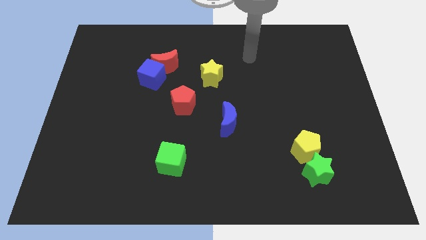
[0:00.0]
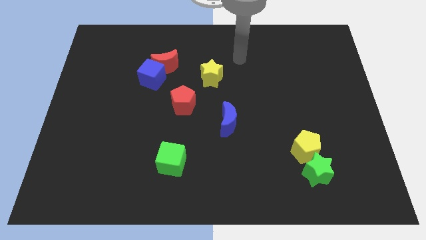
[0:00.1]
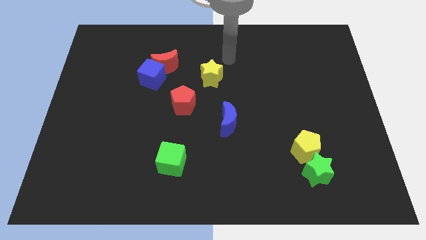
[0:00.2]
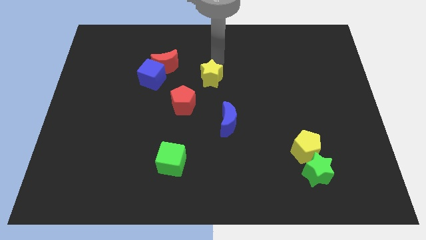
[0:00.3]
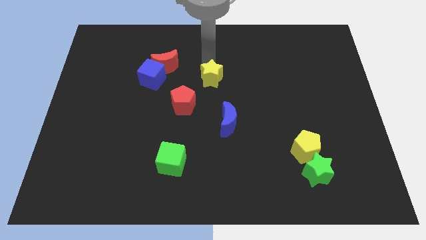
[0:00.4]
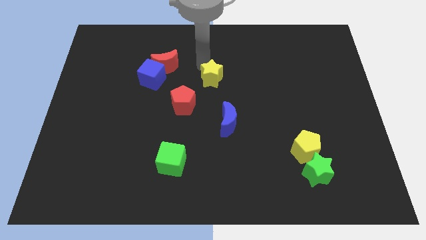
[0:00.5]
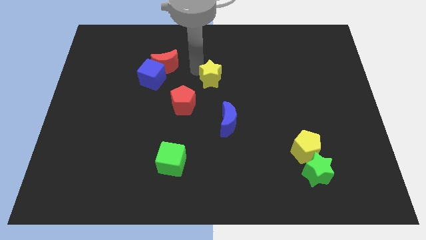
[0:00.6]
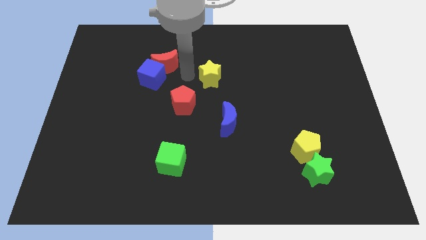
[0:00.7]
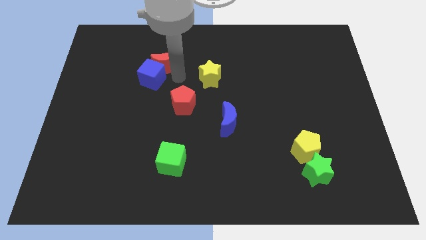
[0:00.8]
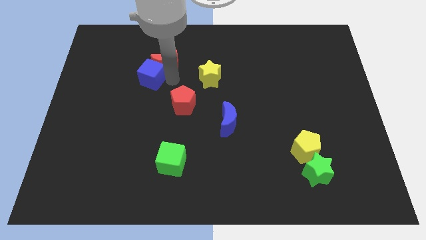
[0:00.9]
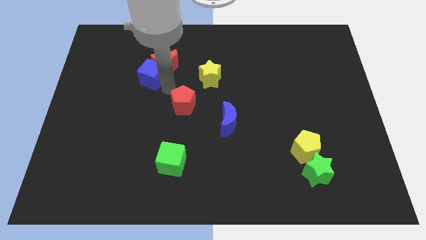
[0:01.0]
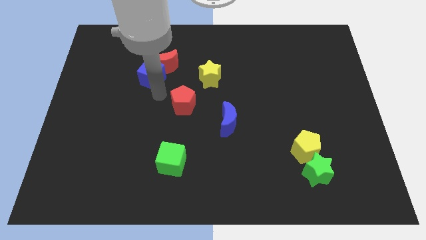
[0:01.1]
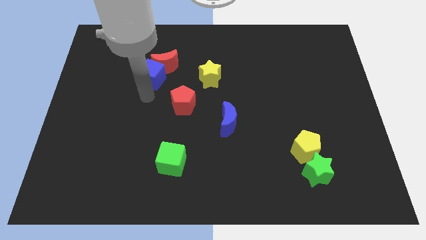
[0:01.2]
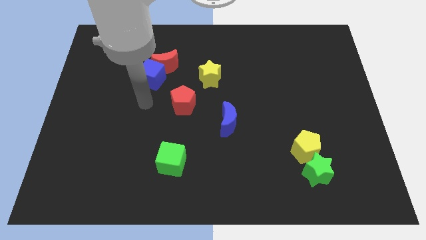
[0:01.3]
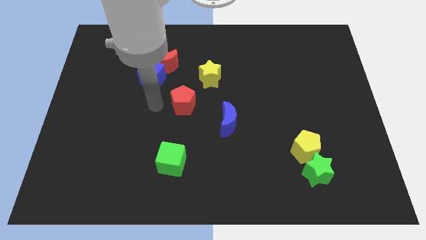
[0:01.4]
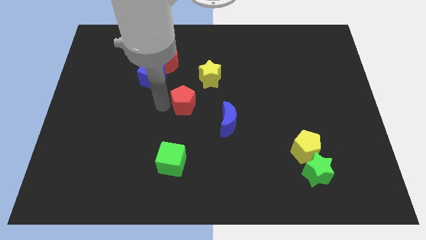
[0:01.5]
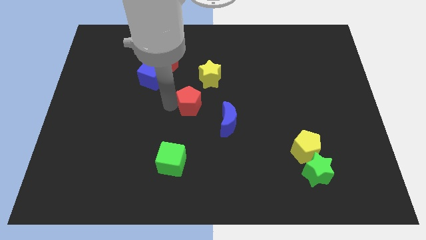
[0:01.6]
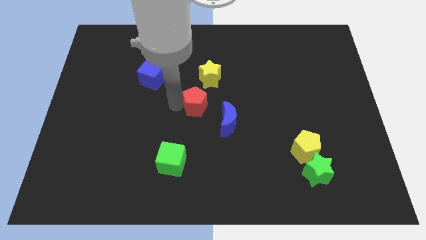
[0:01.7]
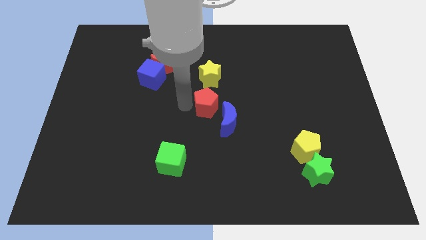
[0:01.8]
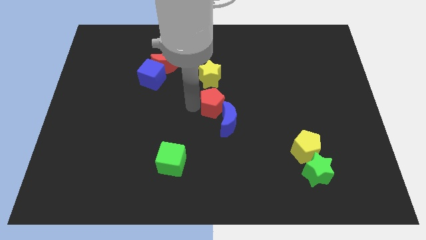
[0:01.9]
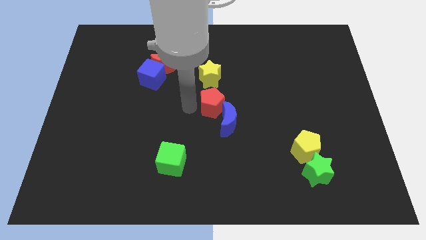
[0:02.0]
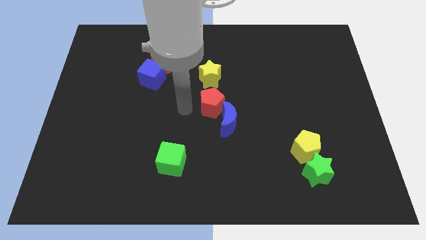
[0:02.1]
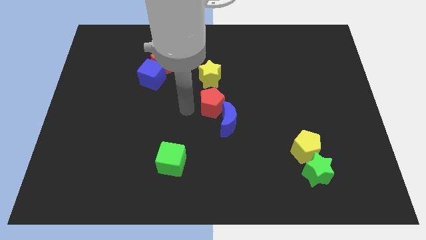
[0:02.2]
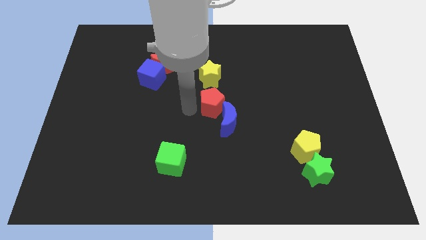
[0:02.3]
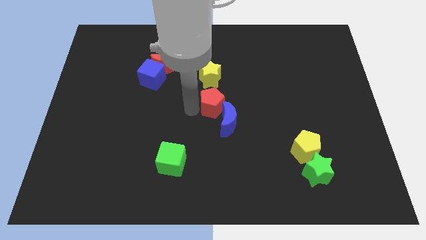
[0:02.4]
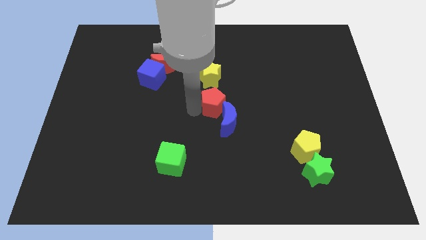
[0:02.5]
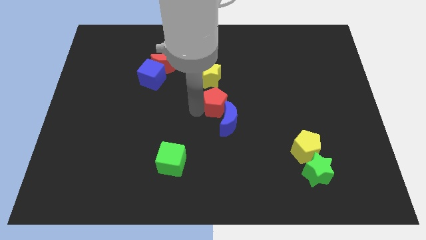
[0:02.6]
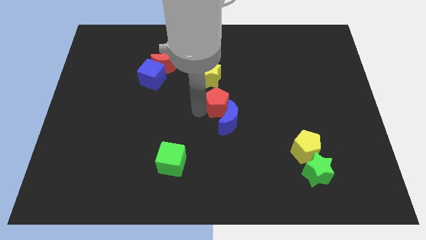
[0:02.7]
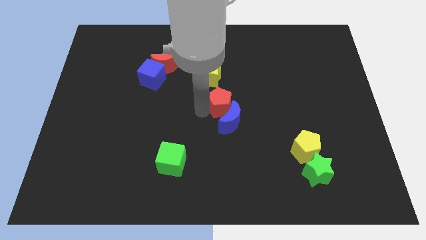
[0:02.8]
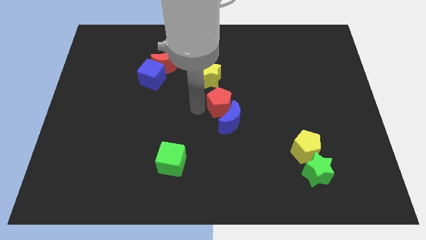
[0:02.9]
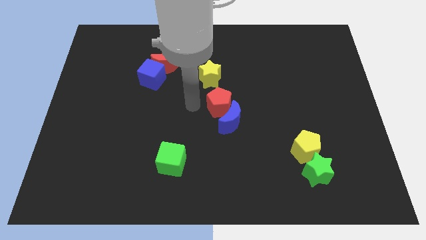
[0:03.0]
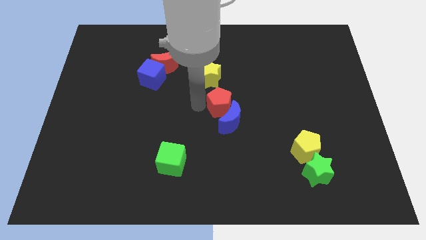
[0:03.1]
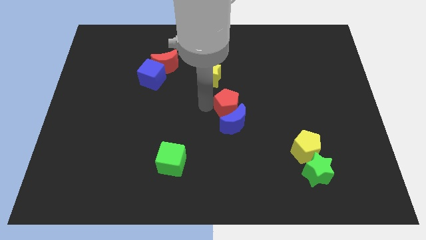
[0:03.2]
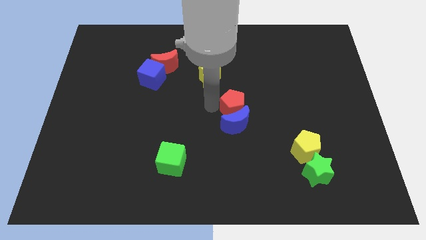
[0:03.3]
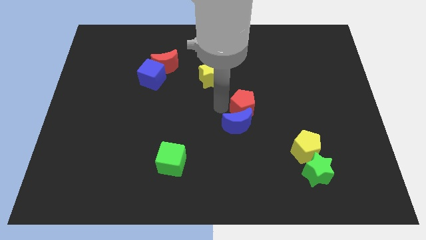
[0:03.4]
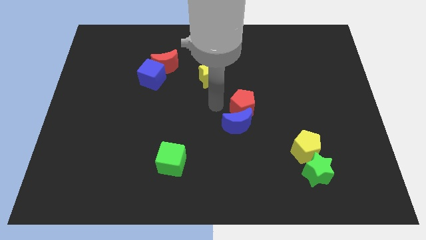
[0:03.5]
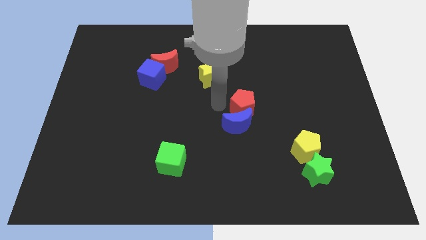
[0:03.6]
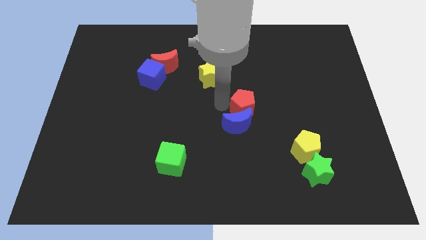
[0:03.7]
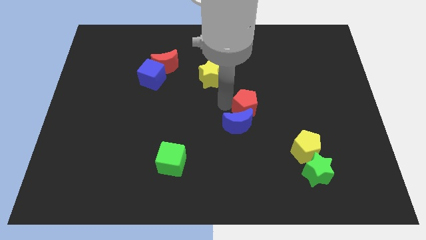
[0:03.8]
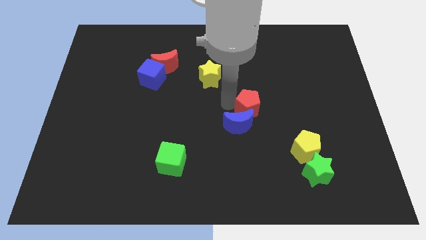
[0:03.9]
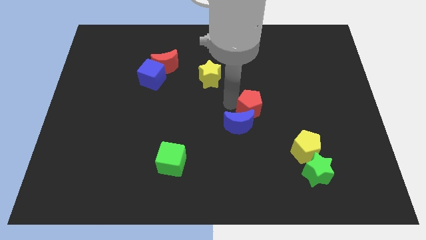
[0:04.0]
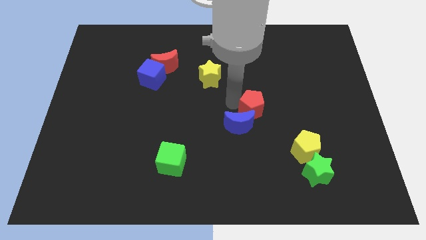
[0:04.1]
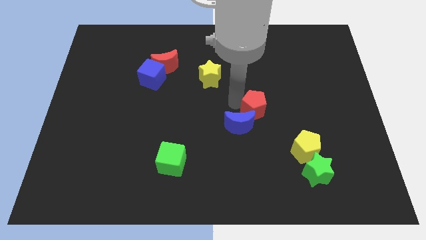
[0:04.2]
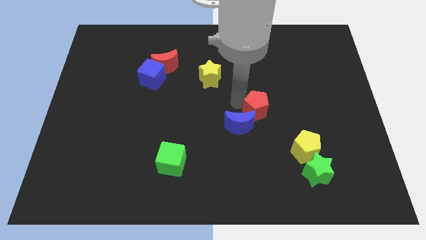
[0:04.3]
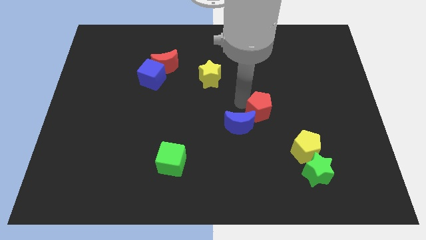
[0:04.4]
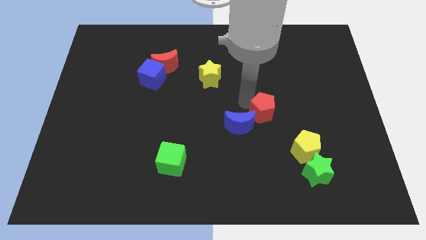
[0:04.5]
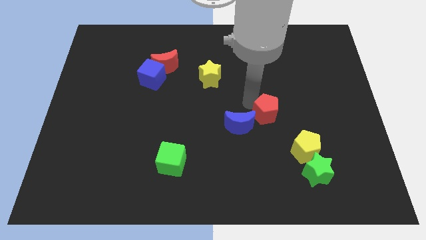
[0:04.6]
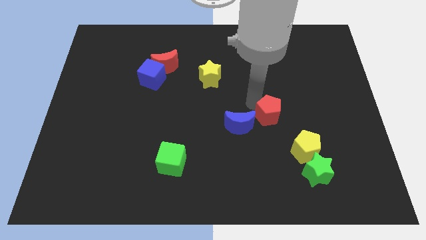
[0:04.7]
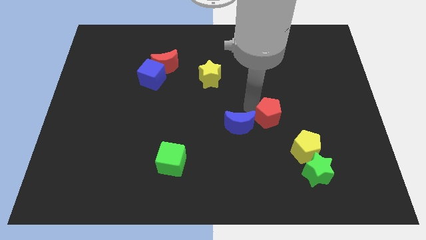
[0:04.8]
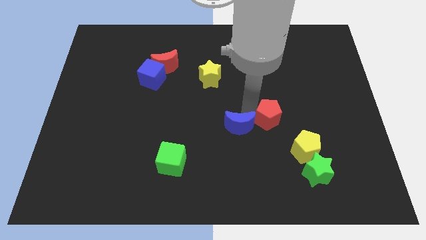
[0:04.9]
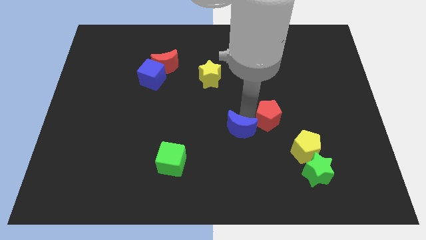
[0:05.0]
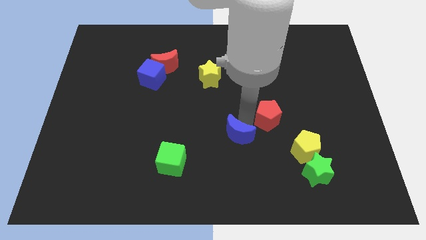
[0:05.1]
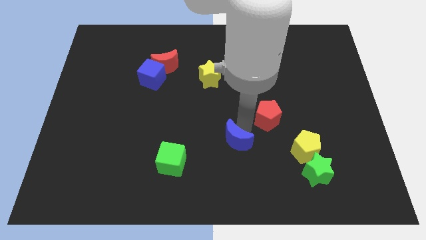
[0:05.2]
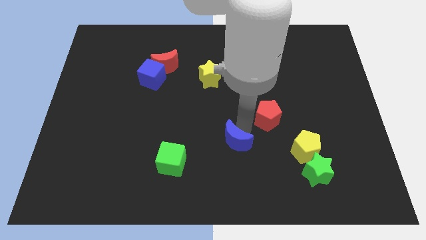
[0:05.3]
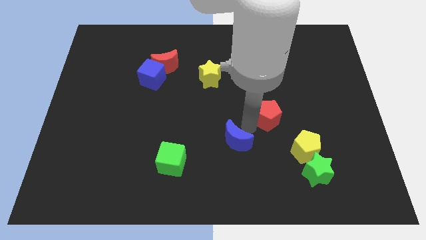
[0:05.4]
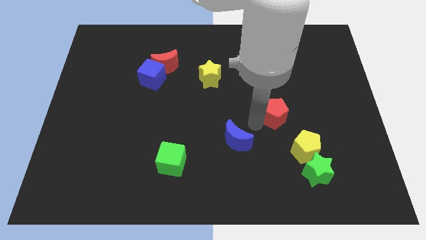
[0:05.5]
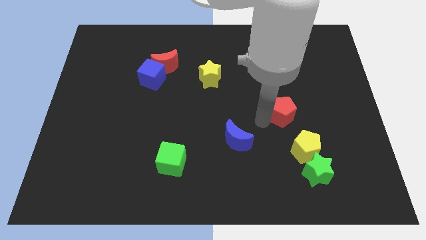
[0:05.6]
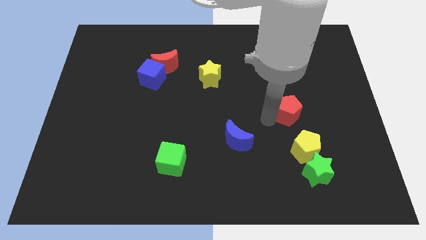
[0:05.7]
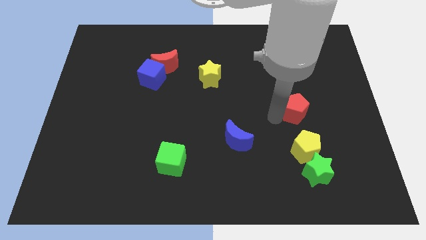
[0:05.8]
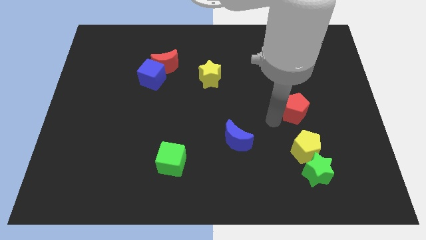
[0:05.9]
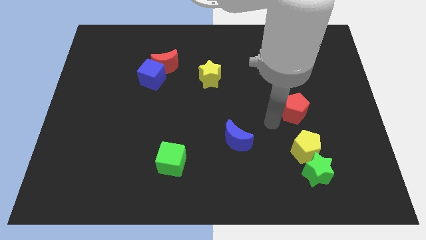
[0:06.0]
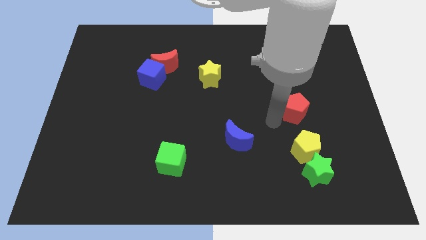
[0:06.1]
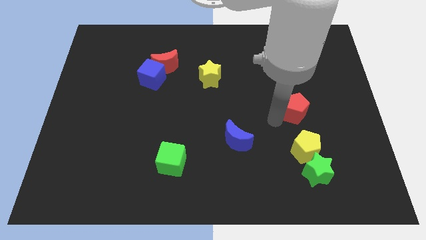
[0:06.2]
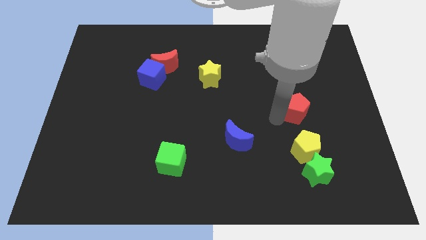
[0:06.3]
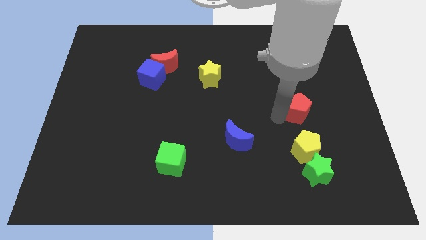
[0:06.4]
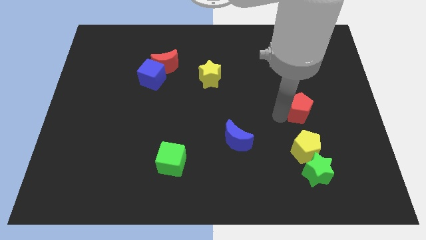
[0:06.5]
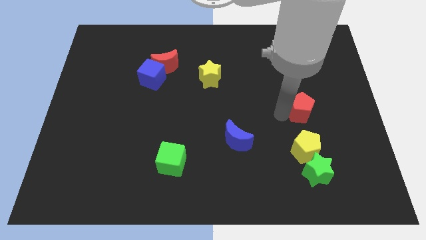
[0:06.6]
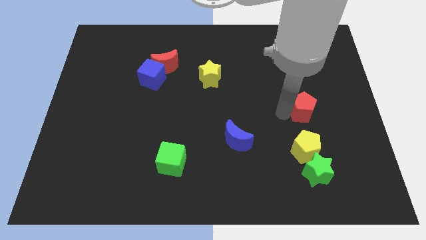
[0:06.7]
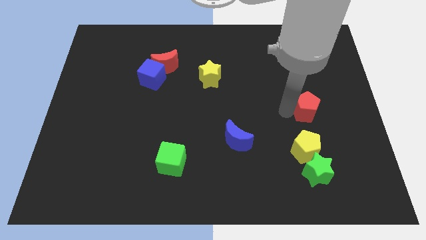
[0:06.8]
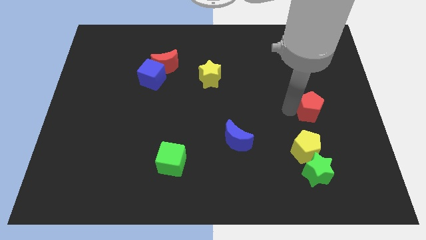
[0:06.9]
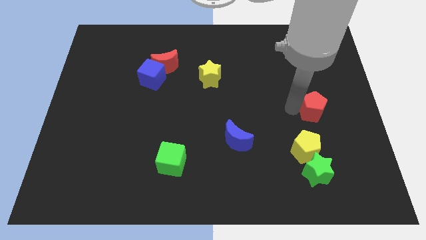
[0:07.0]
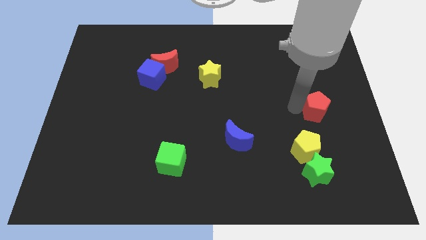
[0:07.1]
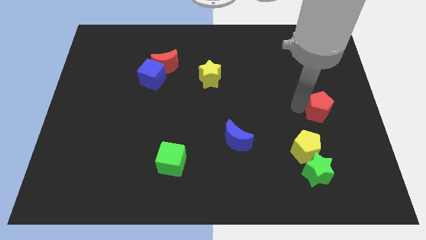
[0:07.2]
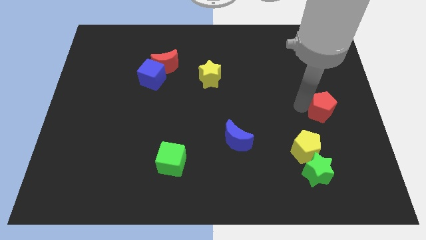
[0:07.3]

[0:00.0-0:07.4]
push the red pentagon to the right side
